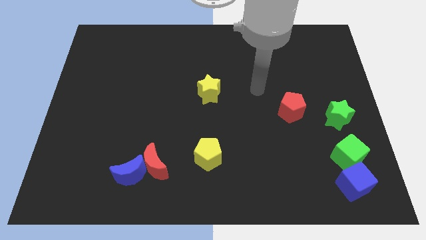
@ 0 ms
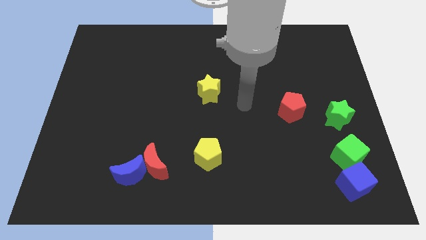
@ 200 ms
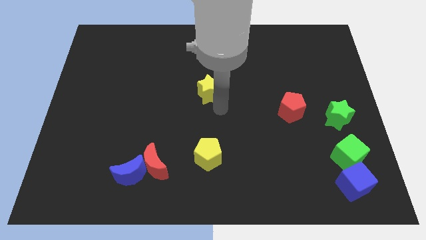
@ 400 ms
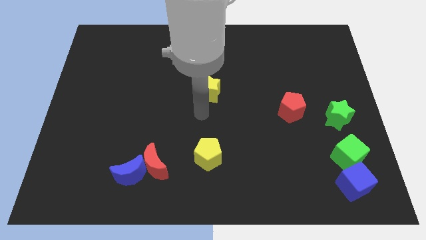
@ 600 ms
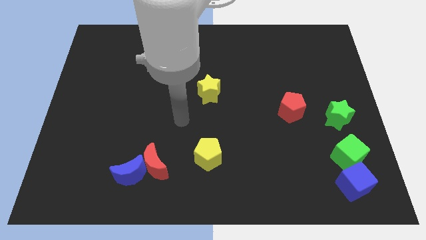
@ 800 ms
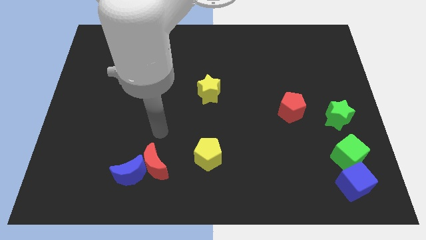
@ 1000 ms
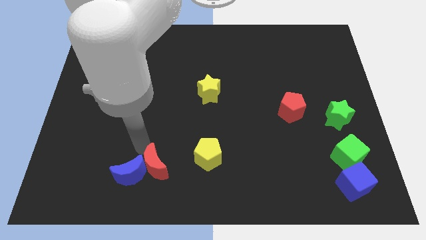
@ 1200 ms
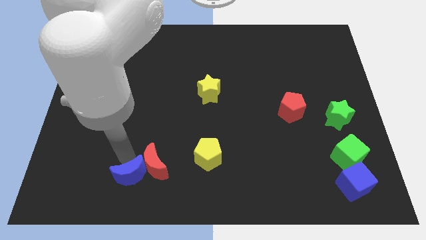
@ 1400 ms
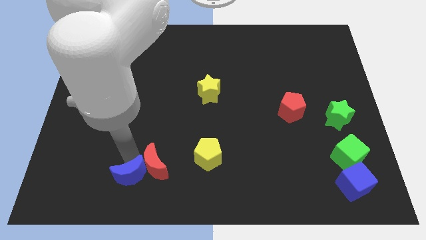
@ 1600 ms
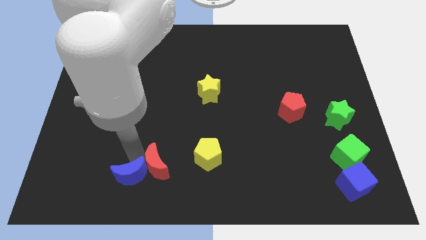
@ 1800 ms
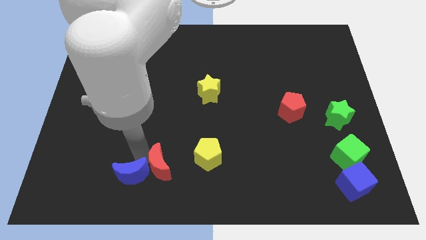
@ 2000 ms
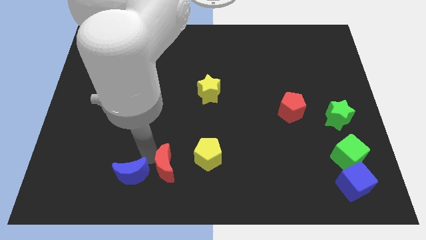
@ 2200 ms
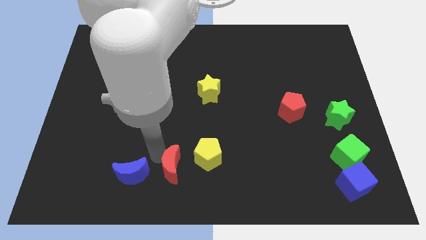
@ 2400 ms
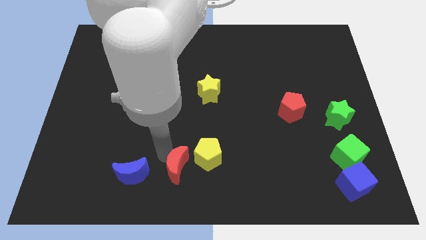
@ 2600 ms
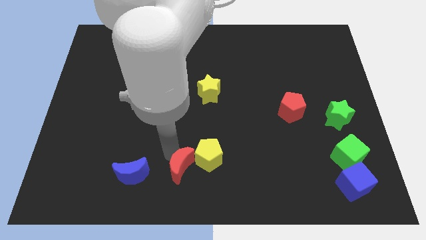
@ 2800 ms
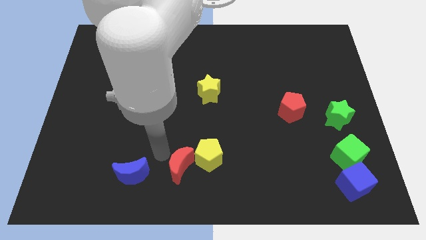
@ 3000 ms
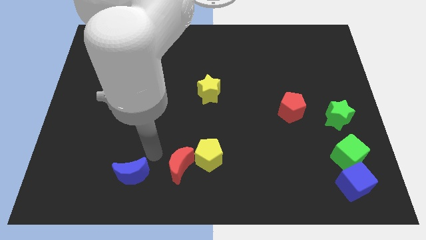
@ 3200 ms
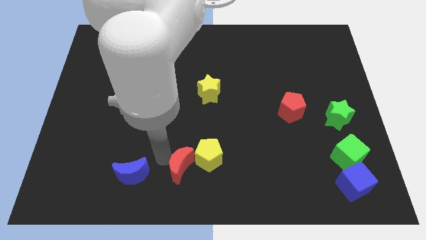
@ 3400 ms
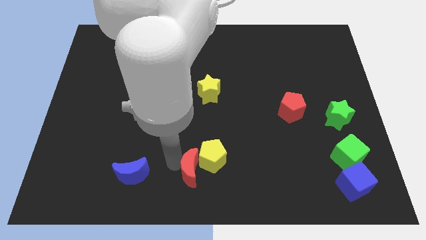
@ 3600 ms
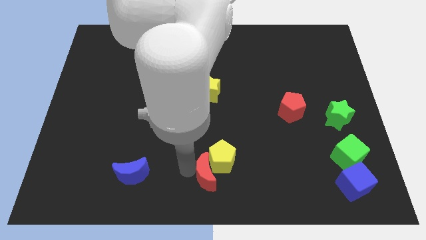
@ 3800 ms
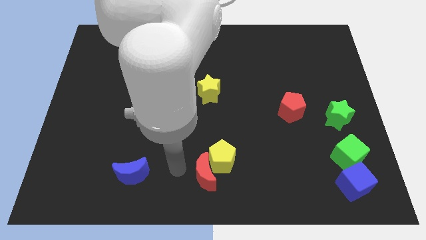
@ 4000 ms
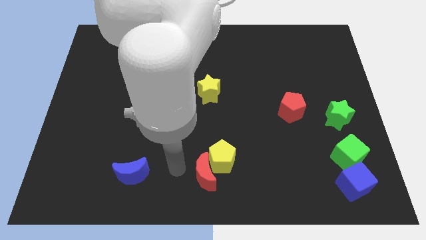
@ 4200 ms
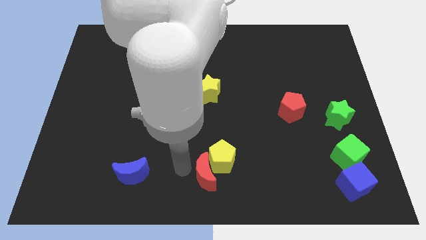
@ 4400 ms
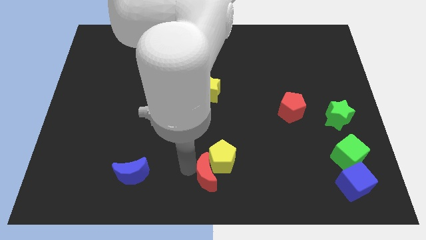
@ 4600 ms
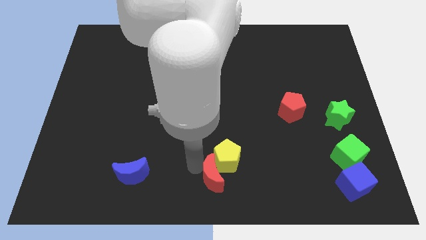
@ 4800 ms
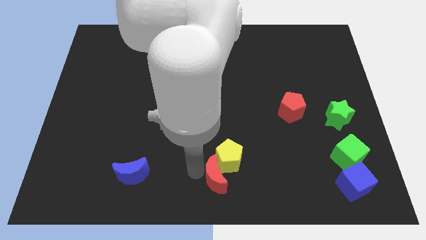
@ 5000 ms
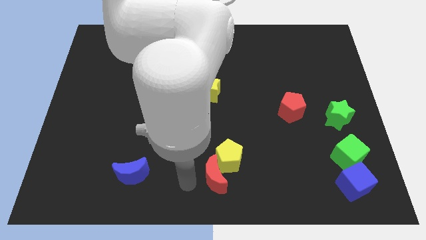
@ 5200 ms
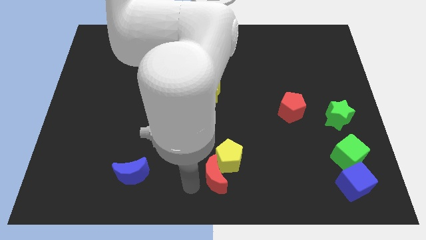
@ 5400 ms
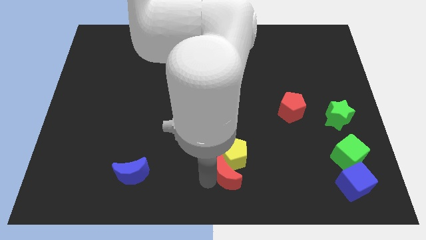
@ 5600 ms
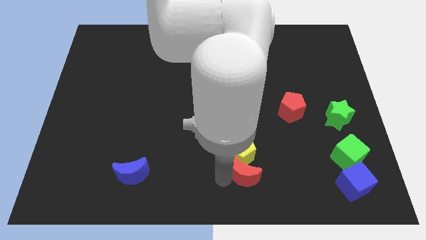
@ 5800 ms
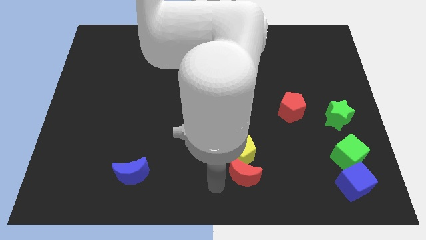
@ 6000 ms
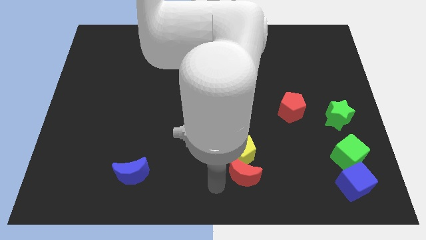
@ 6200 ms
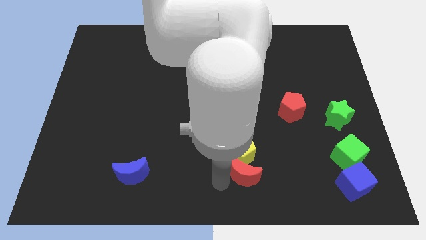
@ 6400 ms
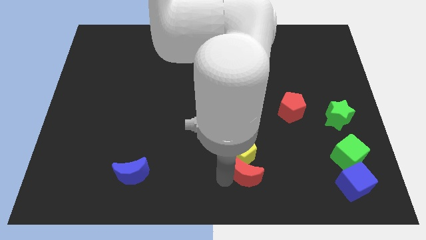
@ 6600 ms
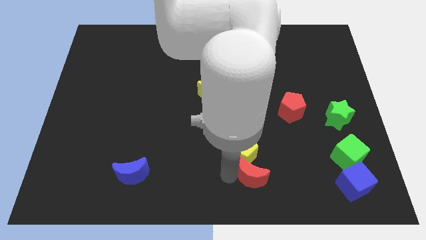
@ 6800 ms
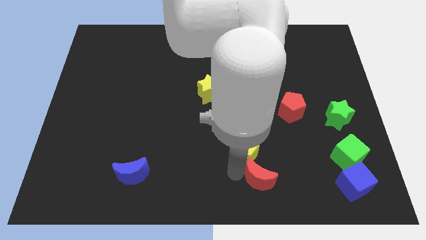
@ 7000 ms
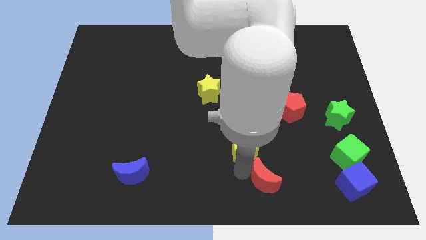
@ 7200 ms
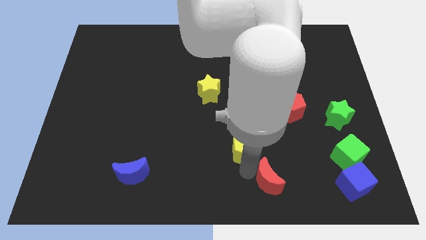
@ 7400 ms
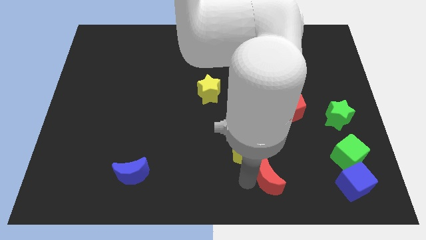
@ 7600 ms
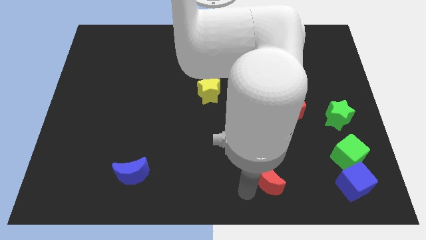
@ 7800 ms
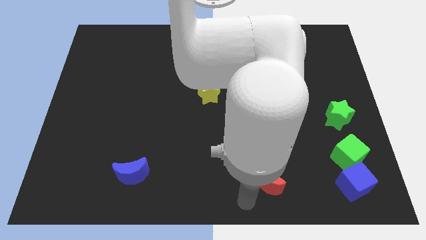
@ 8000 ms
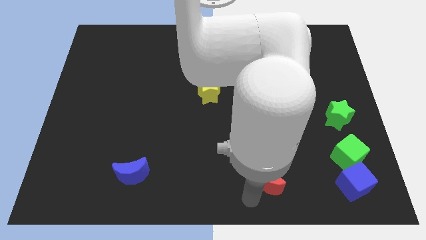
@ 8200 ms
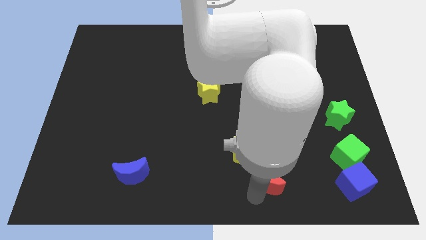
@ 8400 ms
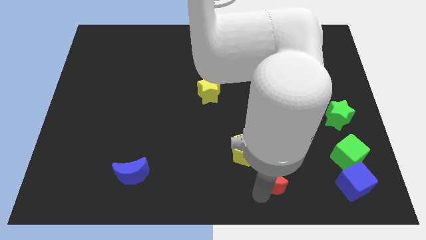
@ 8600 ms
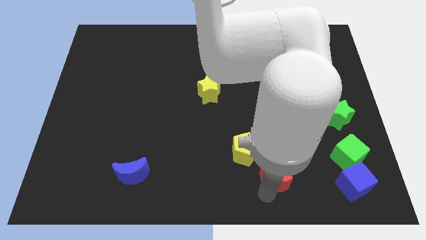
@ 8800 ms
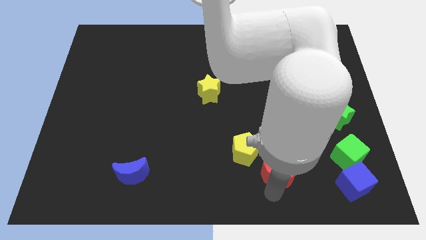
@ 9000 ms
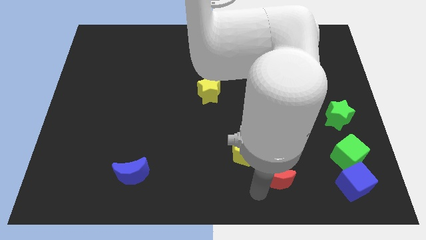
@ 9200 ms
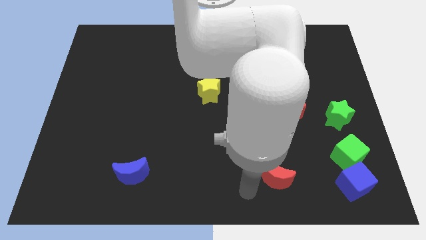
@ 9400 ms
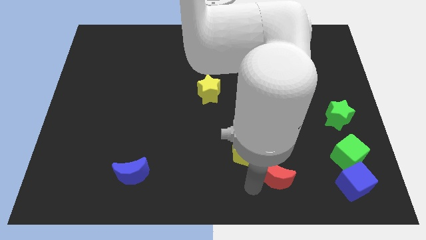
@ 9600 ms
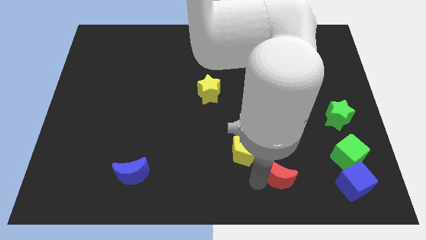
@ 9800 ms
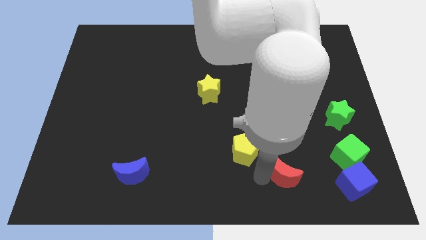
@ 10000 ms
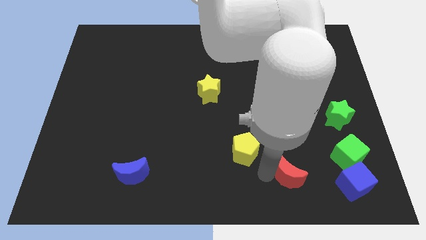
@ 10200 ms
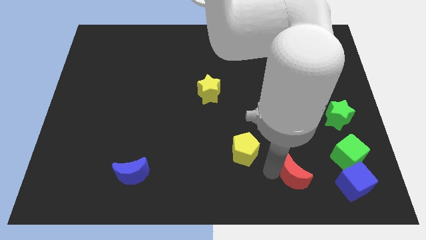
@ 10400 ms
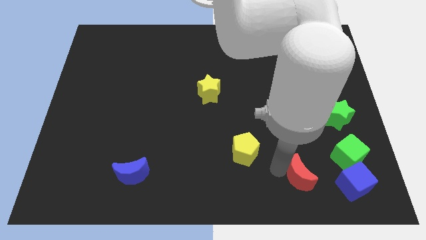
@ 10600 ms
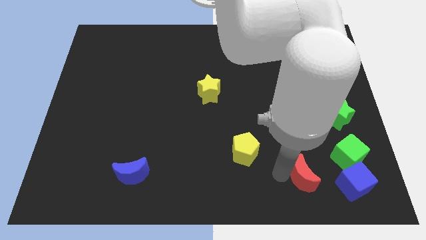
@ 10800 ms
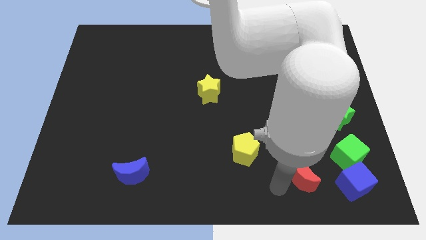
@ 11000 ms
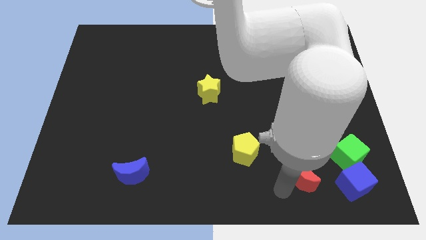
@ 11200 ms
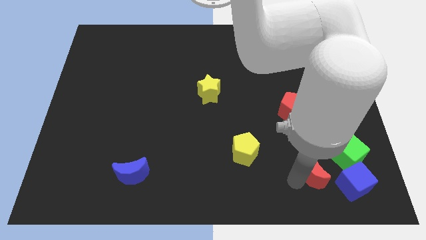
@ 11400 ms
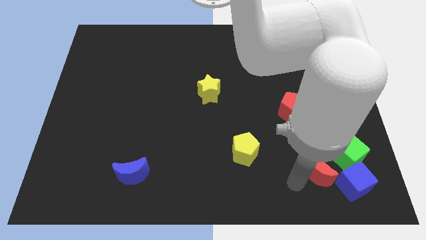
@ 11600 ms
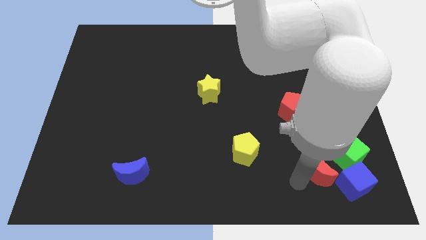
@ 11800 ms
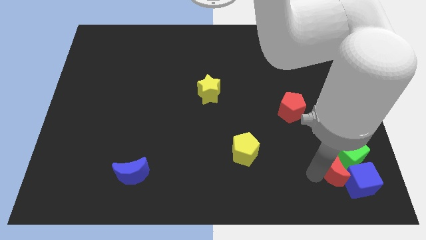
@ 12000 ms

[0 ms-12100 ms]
put the red moon close to the green cube
